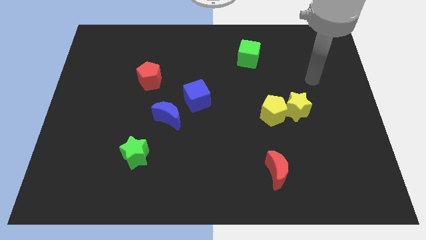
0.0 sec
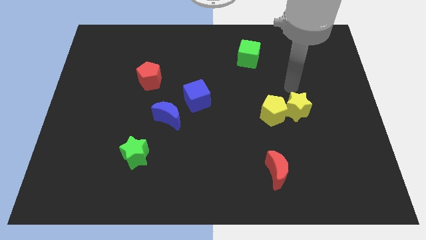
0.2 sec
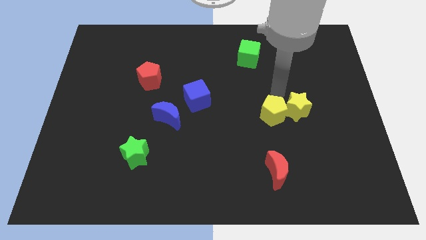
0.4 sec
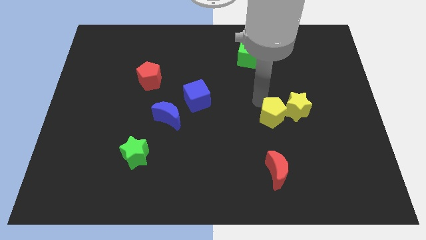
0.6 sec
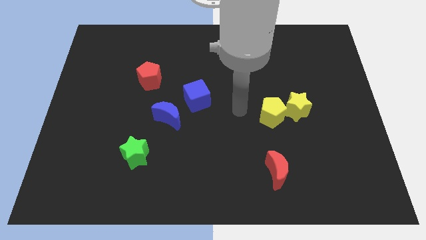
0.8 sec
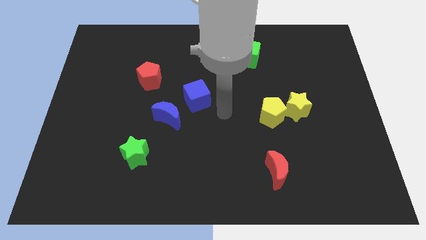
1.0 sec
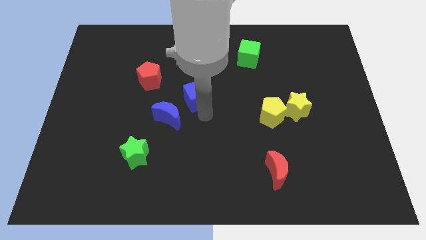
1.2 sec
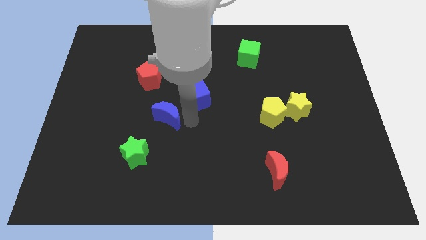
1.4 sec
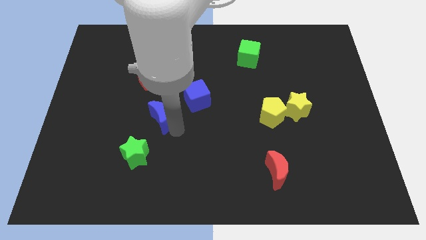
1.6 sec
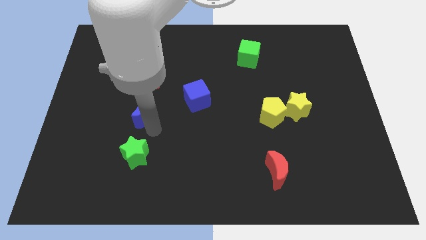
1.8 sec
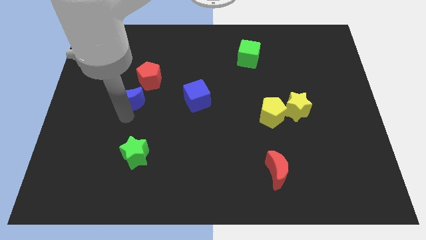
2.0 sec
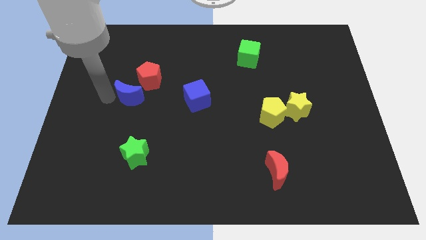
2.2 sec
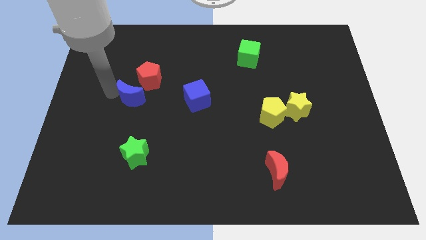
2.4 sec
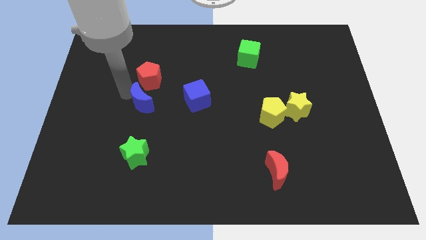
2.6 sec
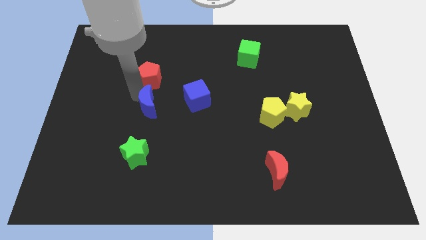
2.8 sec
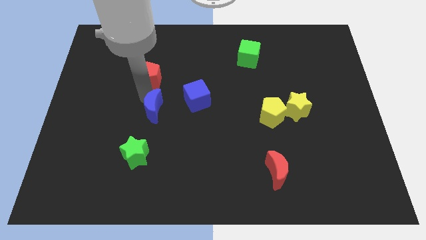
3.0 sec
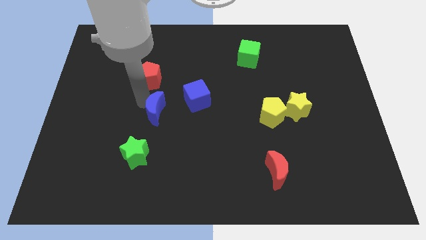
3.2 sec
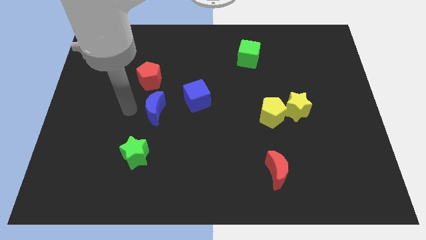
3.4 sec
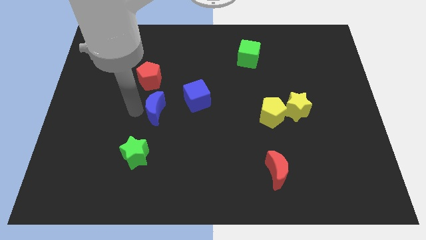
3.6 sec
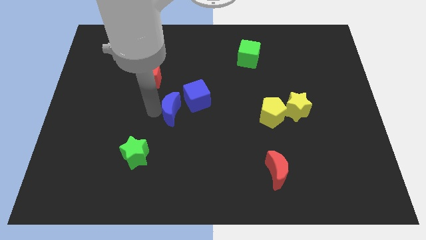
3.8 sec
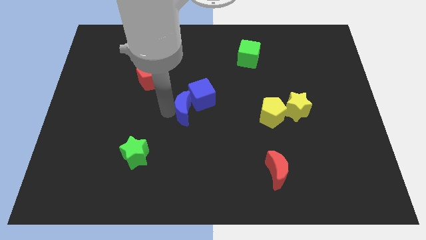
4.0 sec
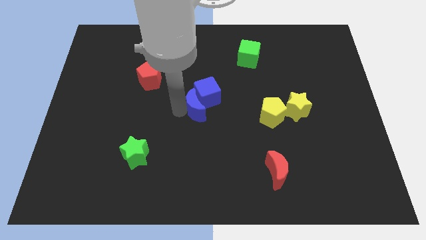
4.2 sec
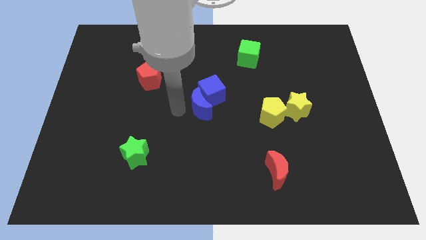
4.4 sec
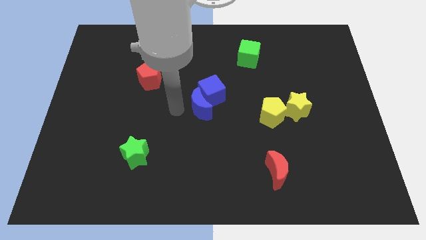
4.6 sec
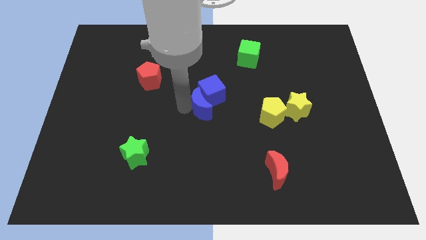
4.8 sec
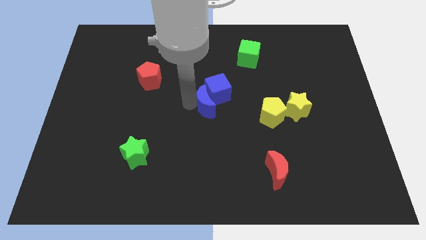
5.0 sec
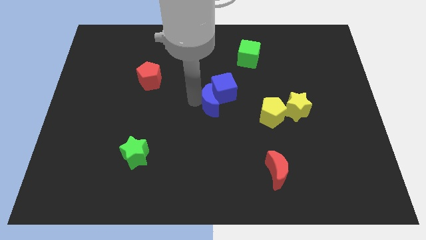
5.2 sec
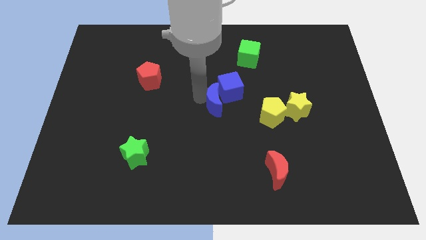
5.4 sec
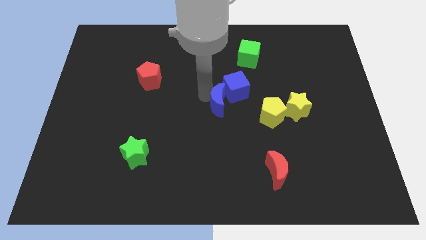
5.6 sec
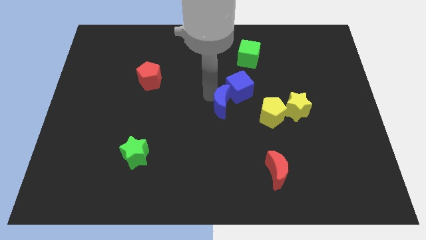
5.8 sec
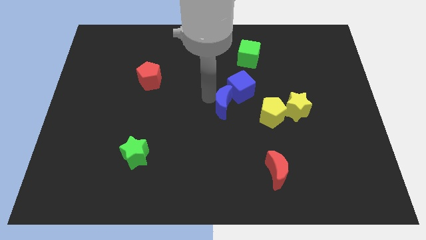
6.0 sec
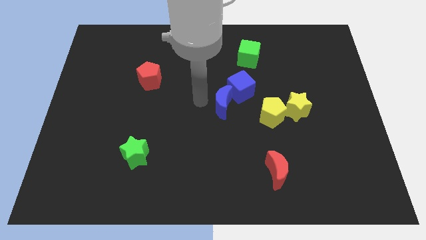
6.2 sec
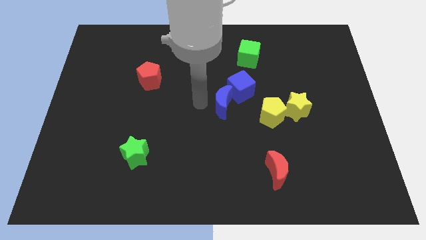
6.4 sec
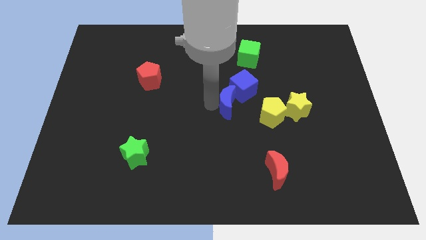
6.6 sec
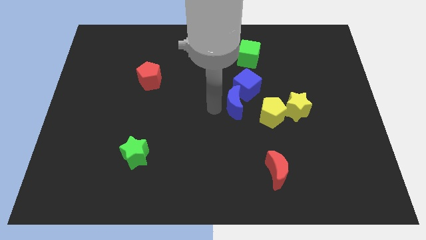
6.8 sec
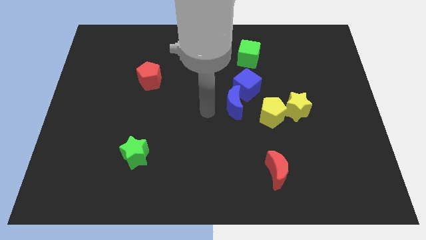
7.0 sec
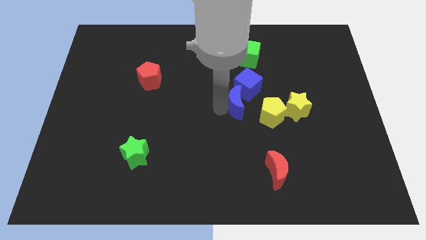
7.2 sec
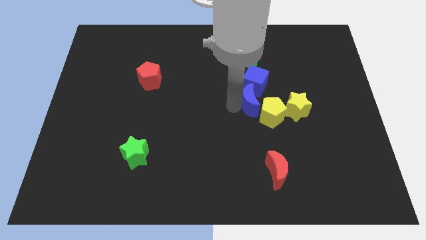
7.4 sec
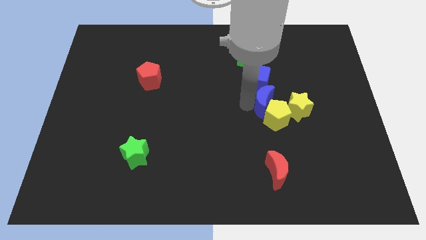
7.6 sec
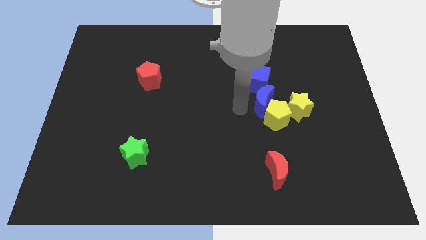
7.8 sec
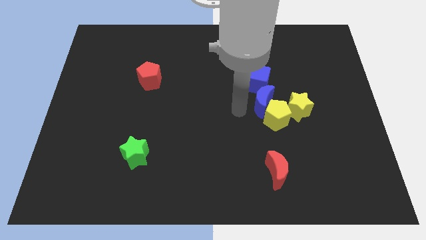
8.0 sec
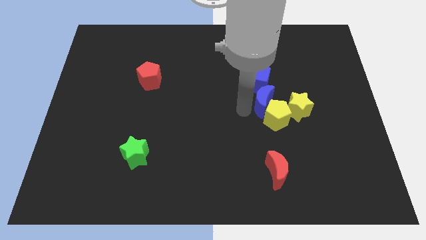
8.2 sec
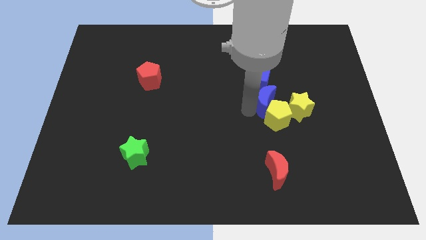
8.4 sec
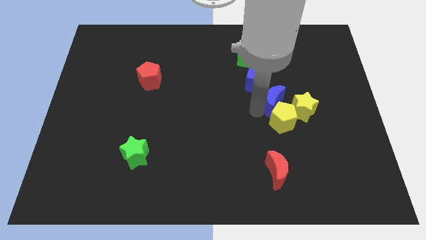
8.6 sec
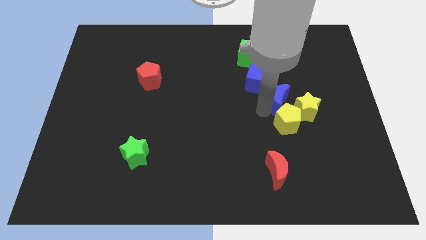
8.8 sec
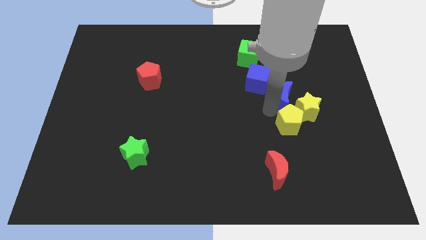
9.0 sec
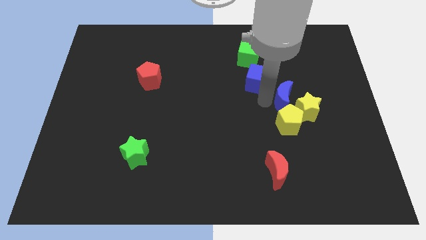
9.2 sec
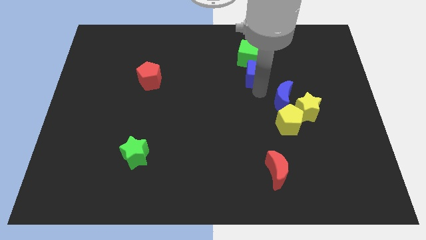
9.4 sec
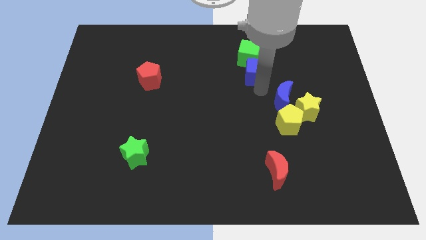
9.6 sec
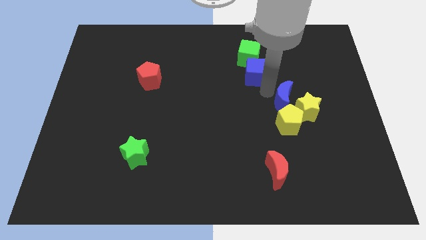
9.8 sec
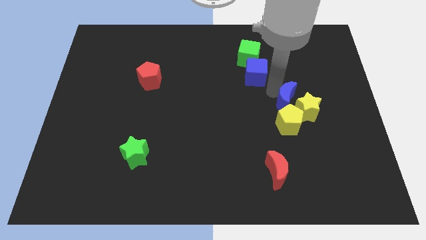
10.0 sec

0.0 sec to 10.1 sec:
put the blue moon to the yellow star

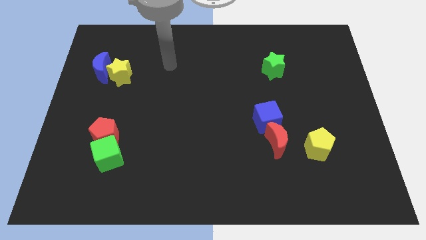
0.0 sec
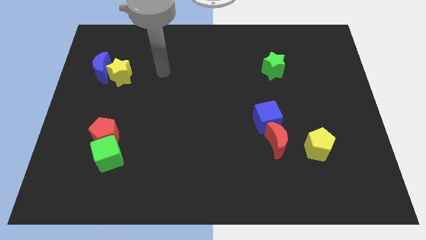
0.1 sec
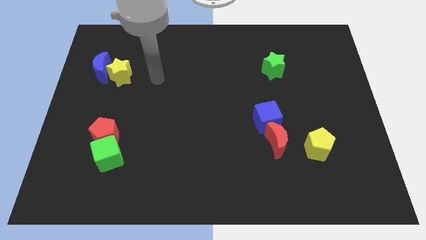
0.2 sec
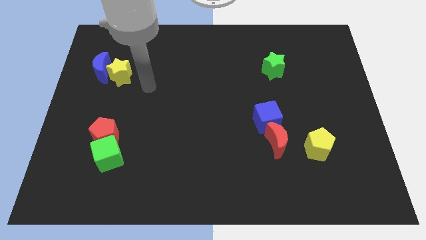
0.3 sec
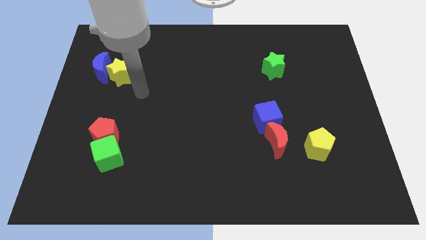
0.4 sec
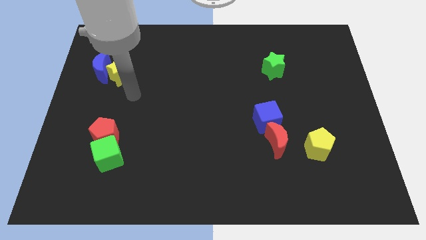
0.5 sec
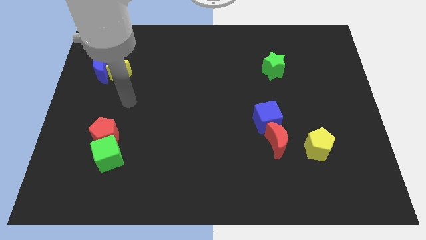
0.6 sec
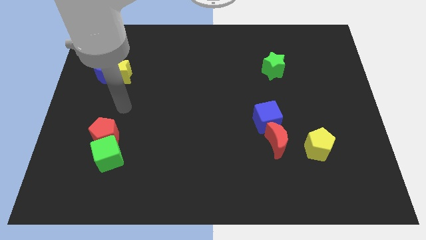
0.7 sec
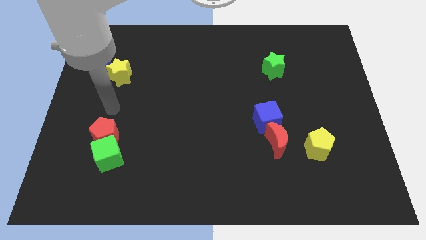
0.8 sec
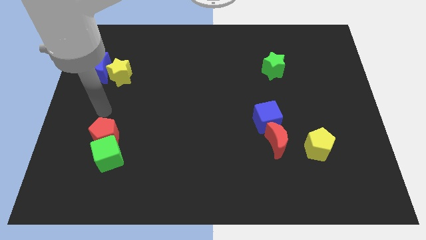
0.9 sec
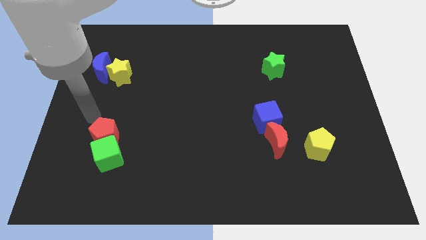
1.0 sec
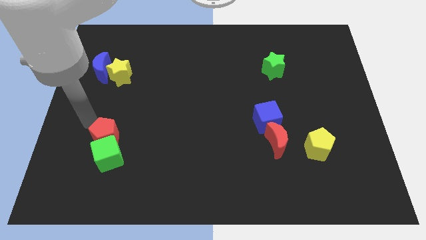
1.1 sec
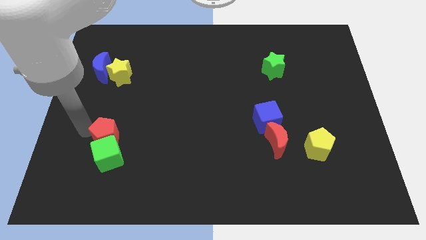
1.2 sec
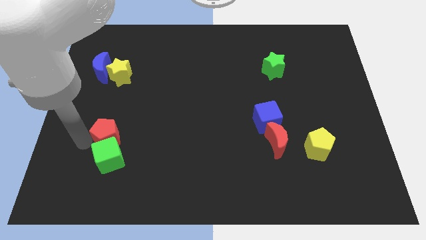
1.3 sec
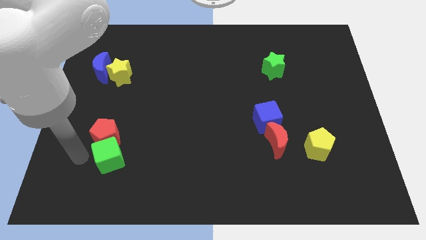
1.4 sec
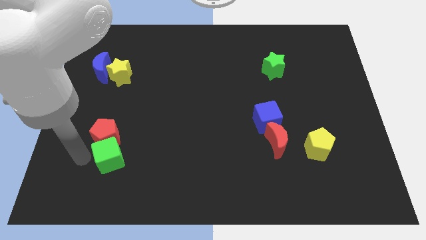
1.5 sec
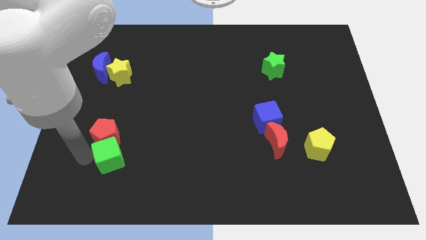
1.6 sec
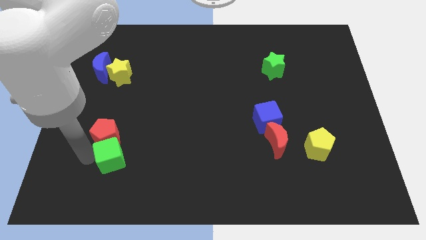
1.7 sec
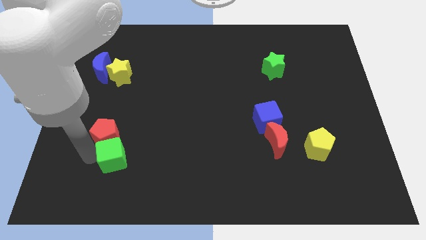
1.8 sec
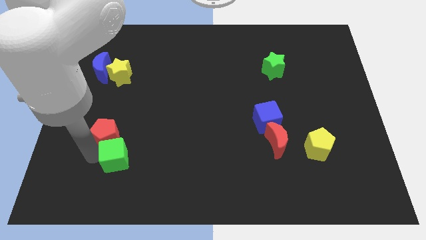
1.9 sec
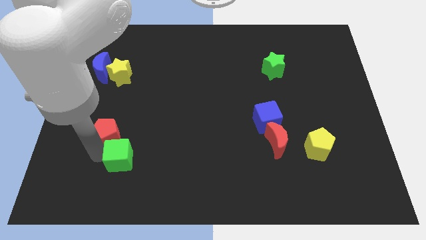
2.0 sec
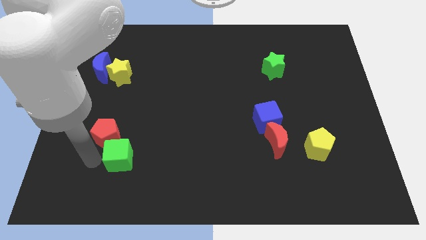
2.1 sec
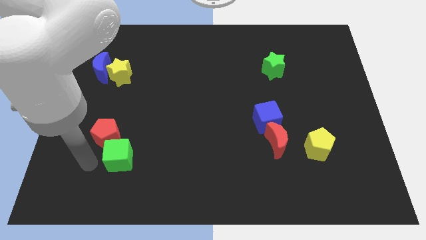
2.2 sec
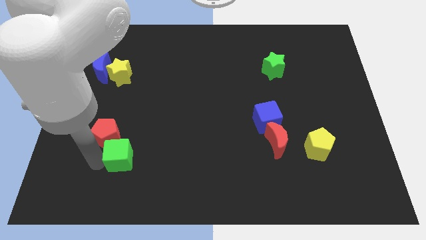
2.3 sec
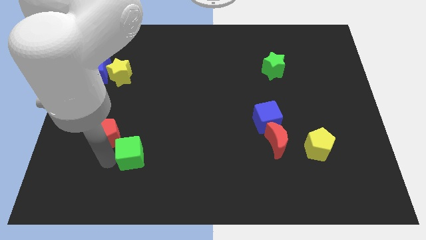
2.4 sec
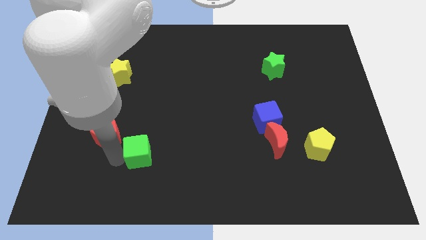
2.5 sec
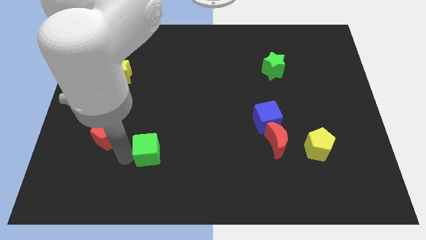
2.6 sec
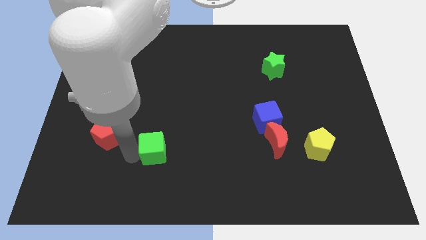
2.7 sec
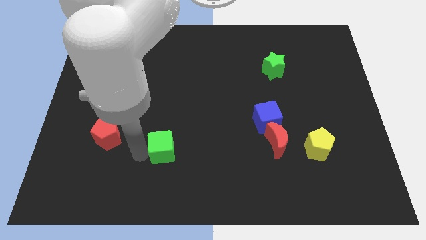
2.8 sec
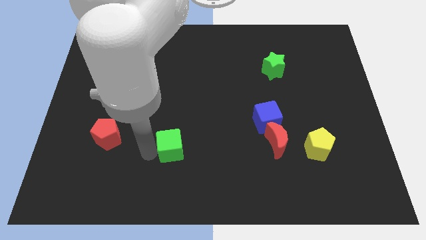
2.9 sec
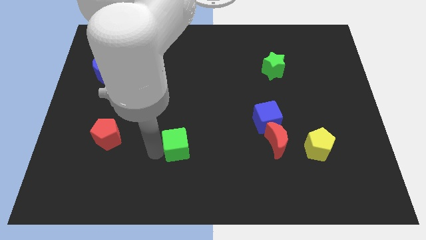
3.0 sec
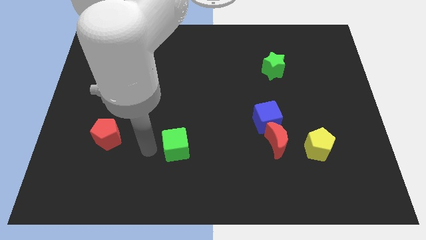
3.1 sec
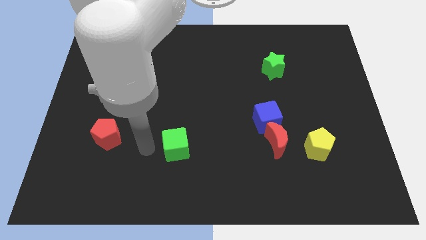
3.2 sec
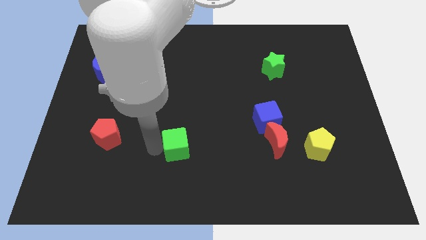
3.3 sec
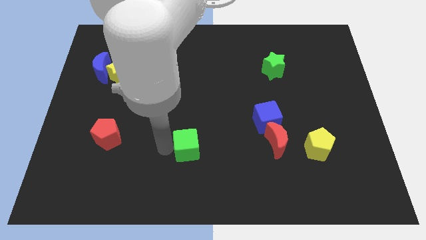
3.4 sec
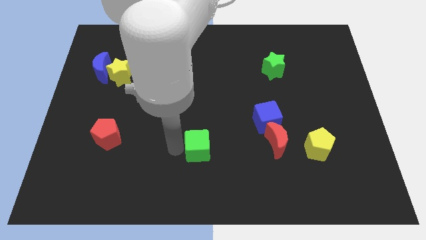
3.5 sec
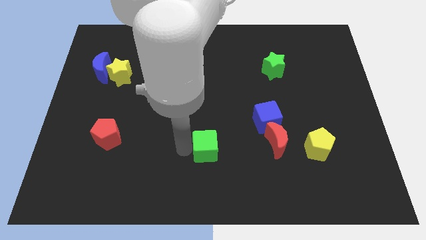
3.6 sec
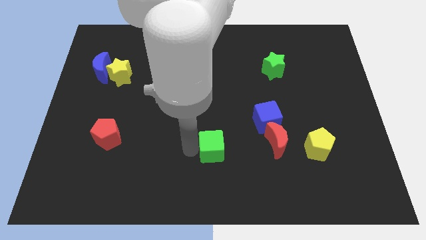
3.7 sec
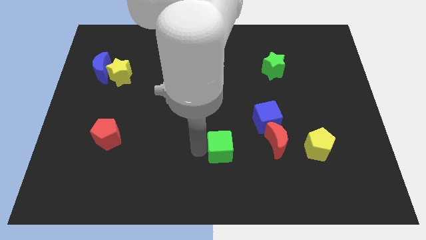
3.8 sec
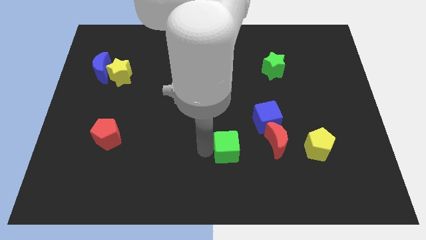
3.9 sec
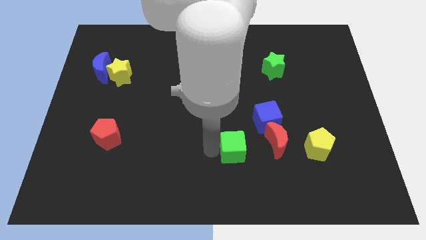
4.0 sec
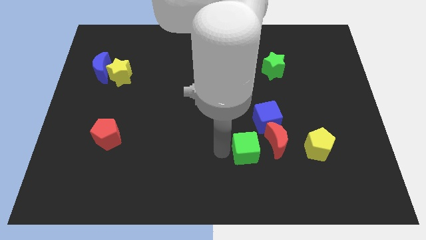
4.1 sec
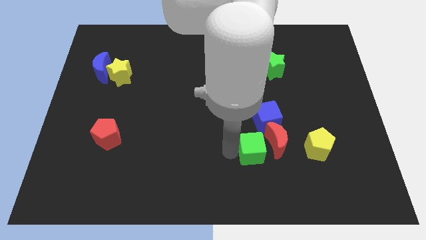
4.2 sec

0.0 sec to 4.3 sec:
slide the green cube towards the red moon
